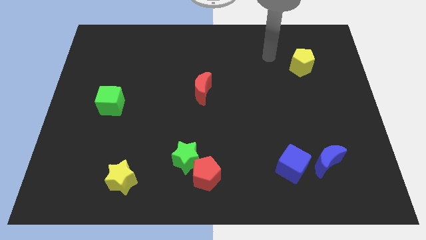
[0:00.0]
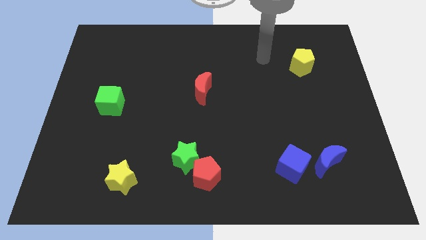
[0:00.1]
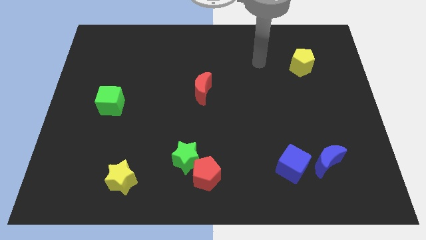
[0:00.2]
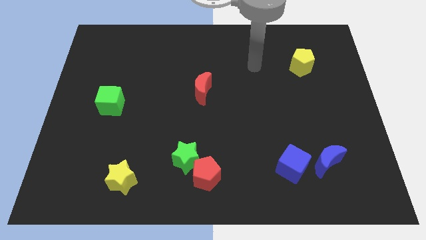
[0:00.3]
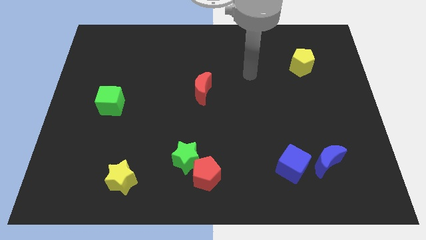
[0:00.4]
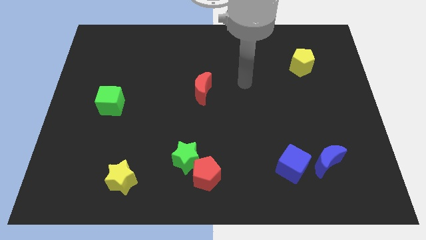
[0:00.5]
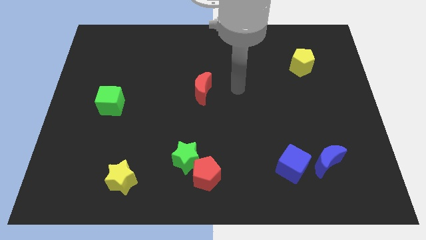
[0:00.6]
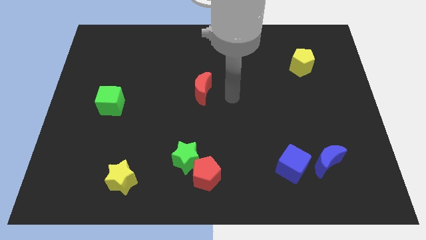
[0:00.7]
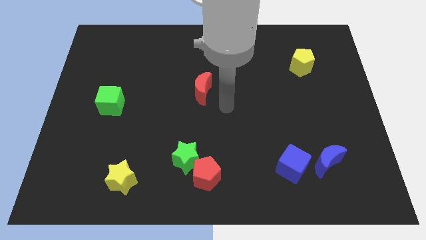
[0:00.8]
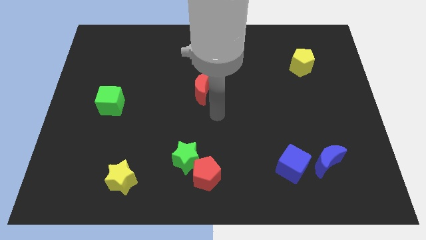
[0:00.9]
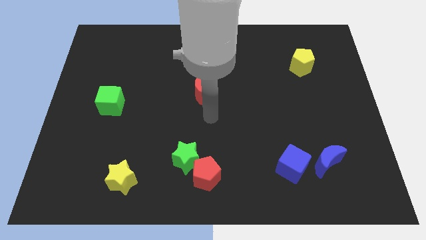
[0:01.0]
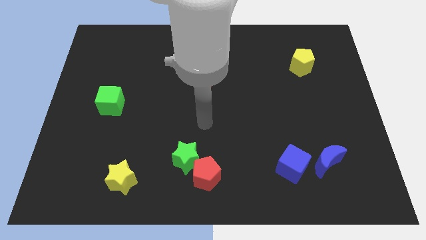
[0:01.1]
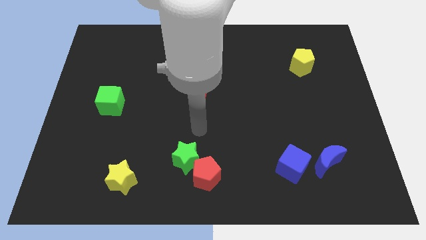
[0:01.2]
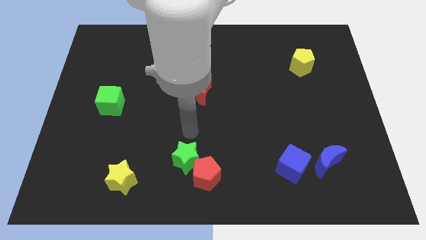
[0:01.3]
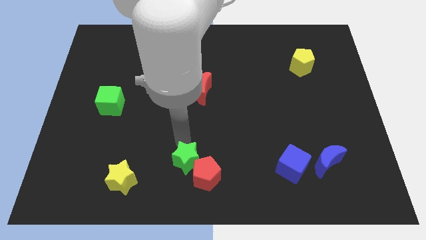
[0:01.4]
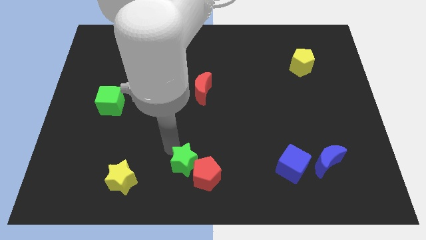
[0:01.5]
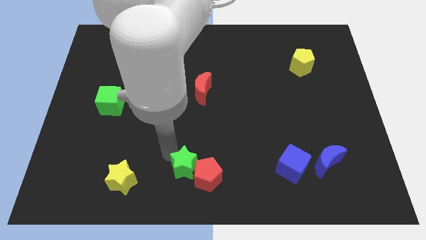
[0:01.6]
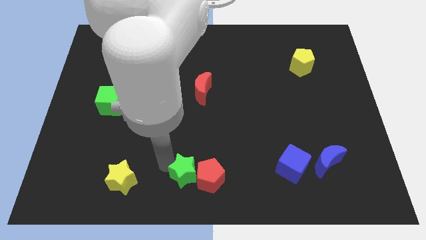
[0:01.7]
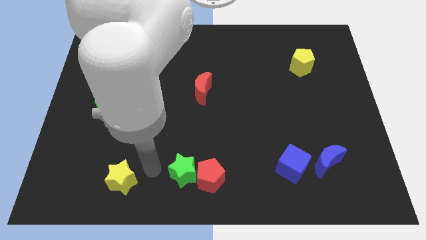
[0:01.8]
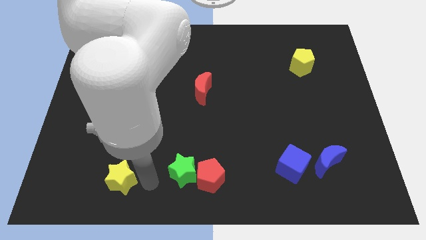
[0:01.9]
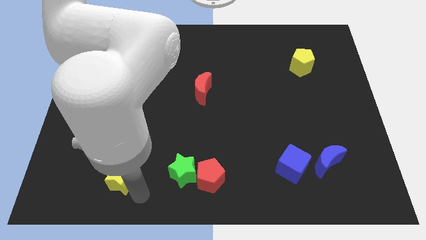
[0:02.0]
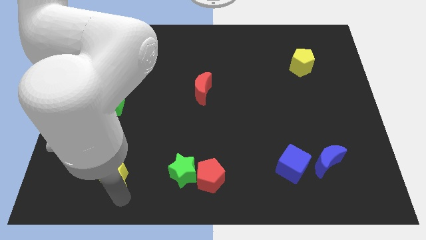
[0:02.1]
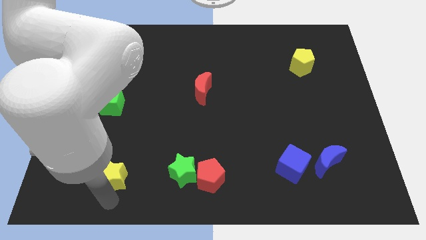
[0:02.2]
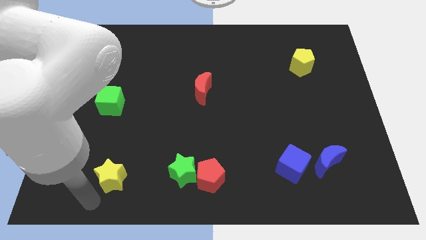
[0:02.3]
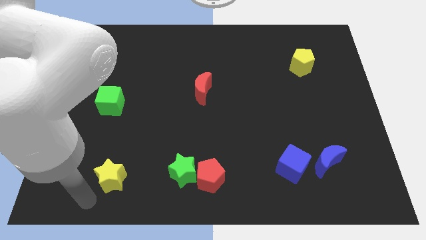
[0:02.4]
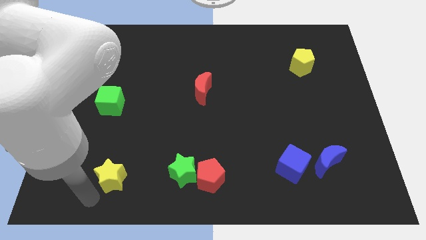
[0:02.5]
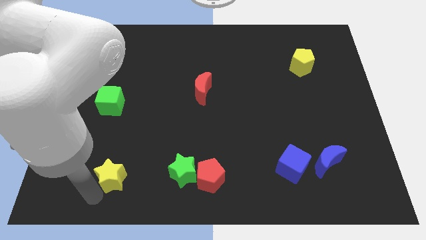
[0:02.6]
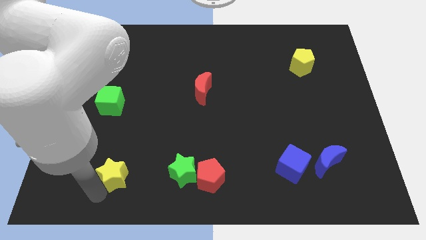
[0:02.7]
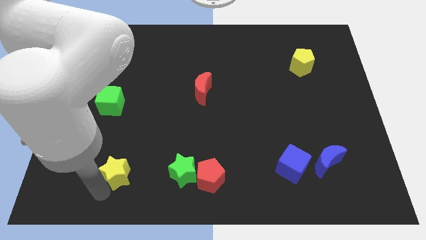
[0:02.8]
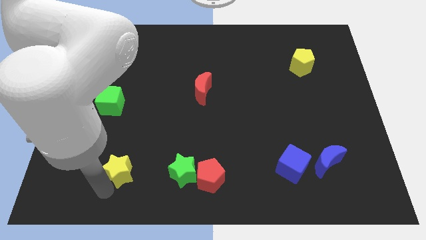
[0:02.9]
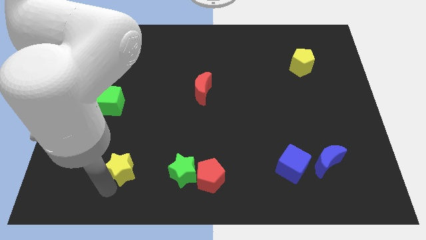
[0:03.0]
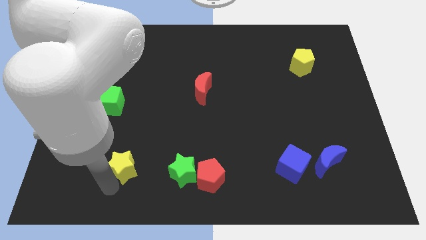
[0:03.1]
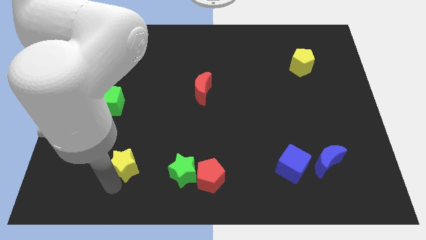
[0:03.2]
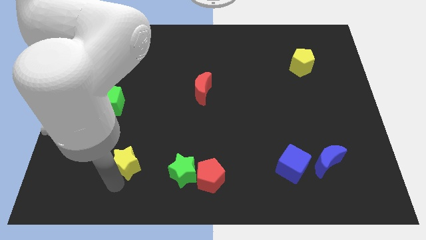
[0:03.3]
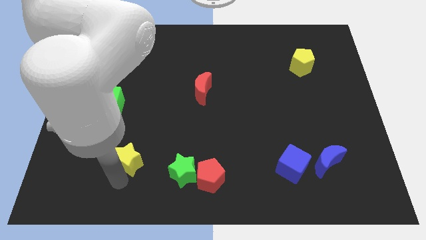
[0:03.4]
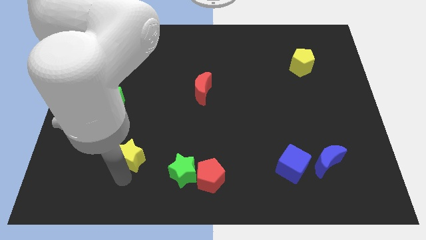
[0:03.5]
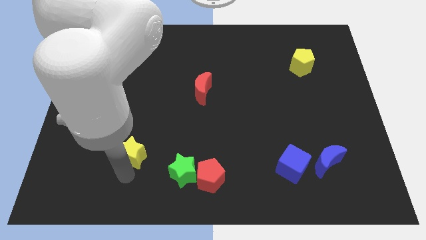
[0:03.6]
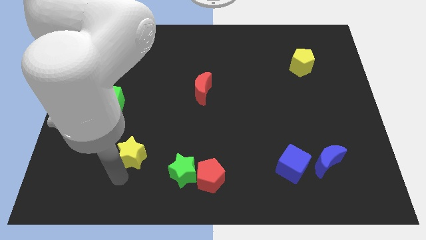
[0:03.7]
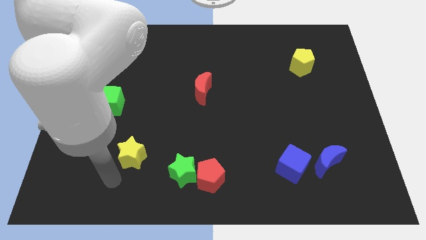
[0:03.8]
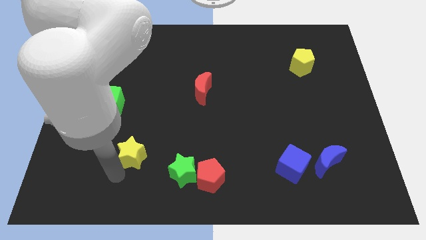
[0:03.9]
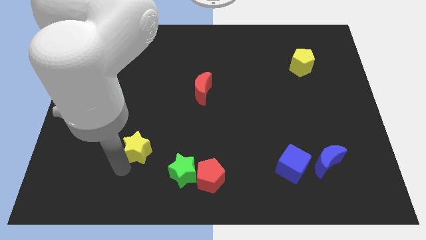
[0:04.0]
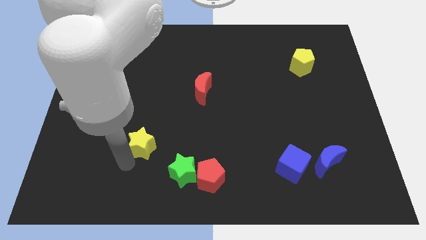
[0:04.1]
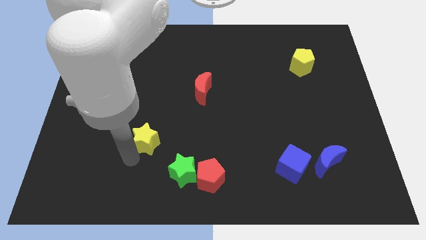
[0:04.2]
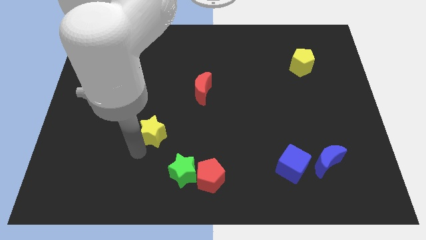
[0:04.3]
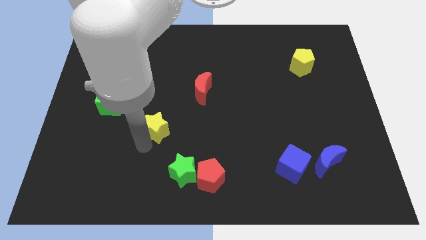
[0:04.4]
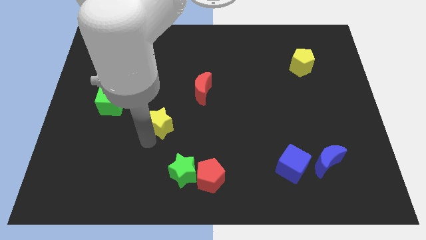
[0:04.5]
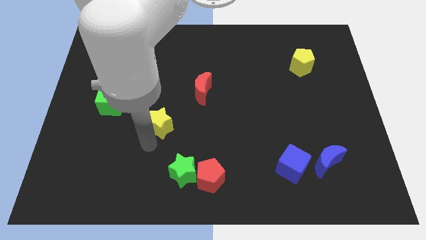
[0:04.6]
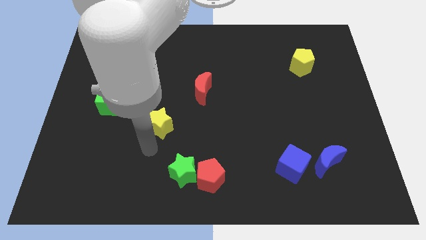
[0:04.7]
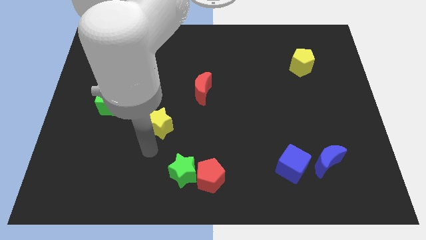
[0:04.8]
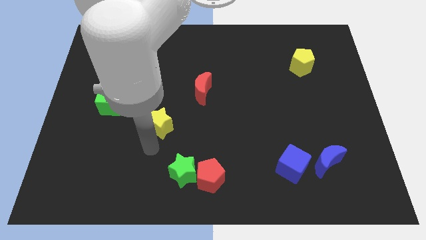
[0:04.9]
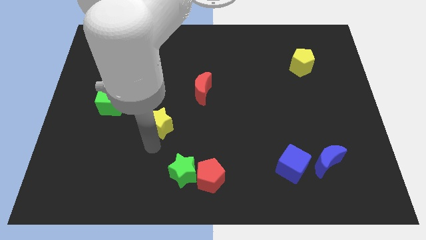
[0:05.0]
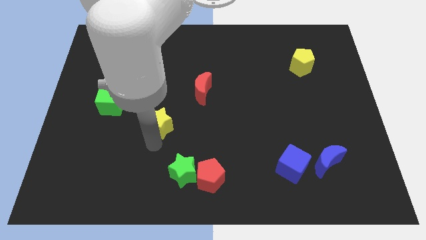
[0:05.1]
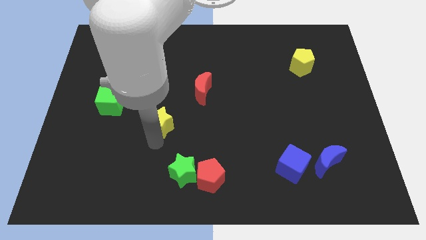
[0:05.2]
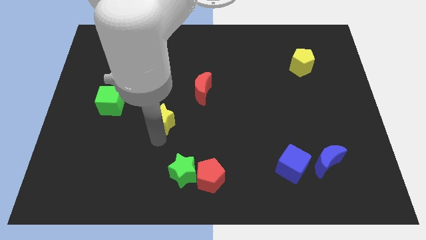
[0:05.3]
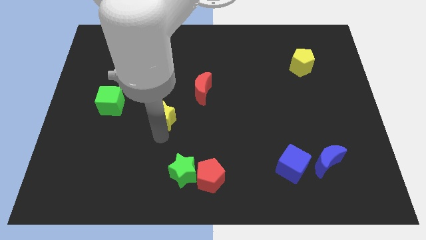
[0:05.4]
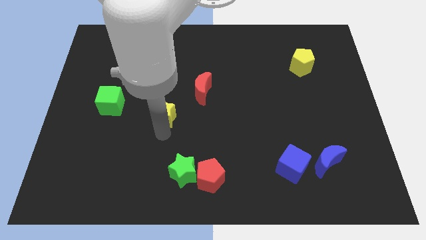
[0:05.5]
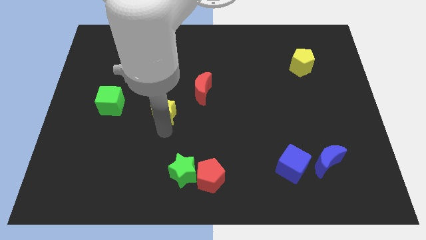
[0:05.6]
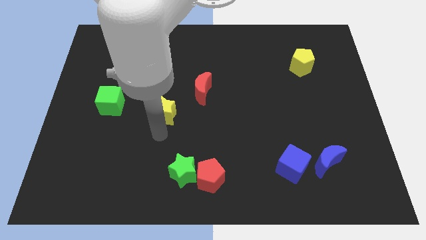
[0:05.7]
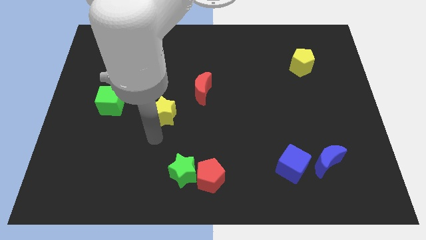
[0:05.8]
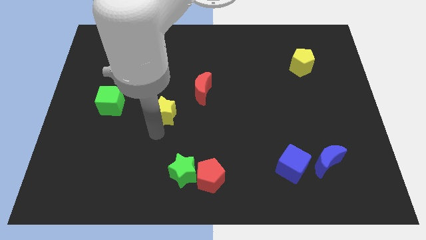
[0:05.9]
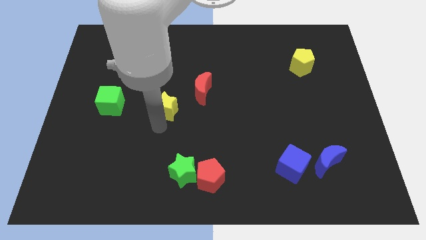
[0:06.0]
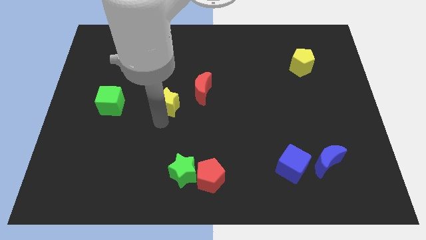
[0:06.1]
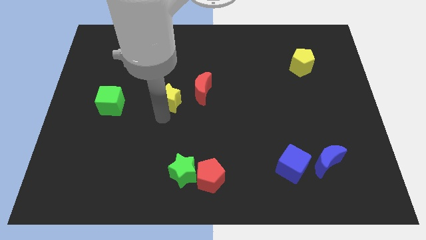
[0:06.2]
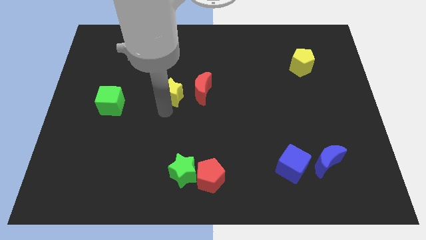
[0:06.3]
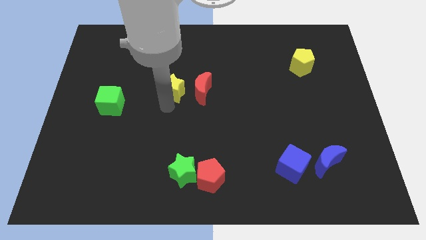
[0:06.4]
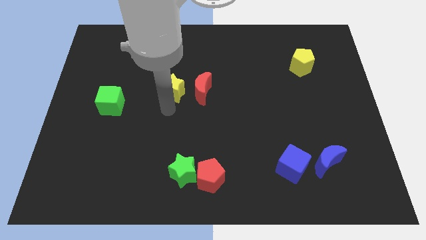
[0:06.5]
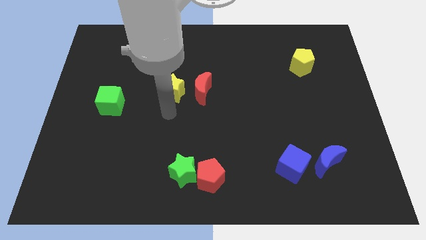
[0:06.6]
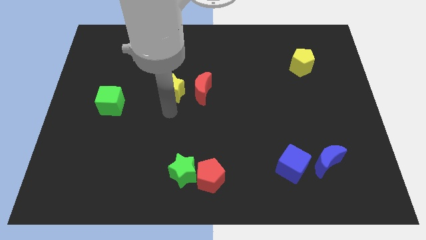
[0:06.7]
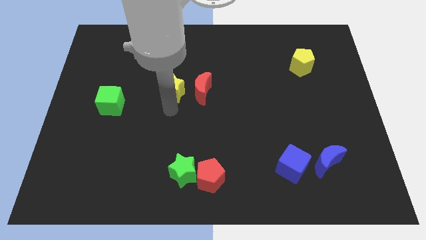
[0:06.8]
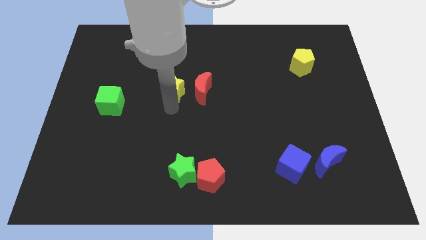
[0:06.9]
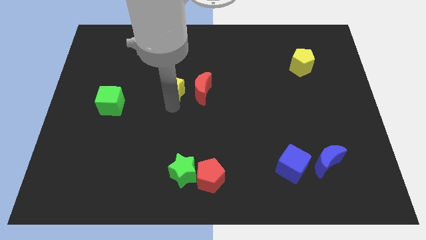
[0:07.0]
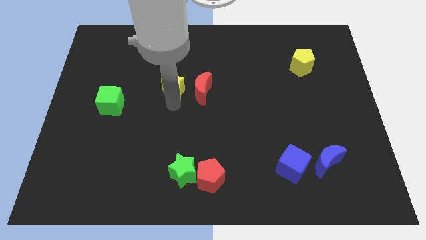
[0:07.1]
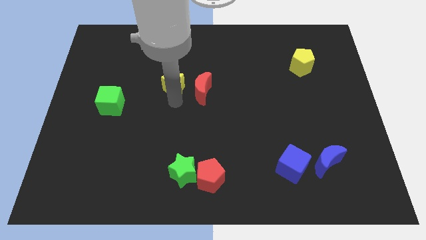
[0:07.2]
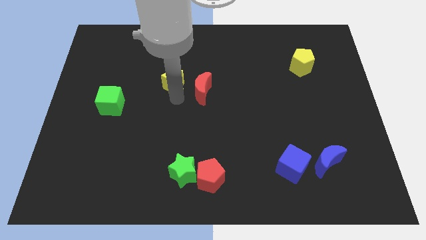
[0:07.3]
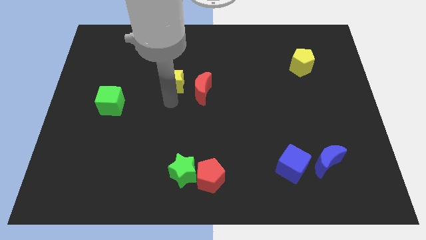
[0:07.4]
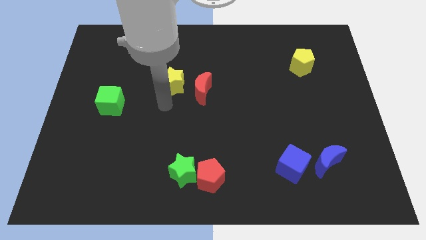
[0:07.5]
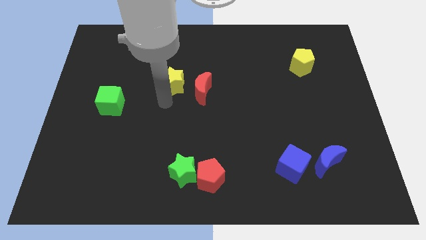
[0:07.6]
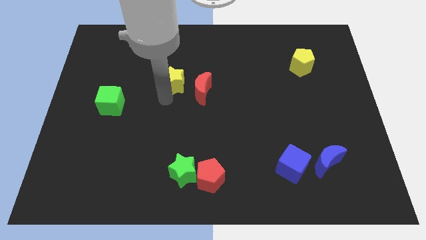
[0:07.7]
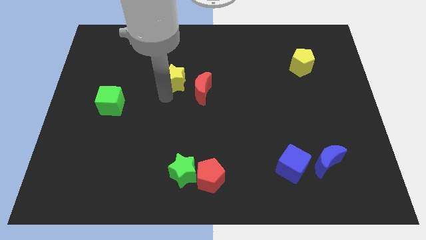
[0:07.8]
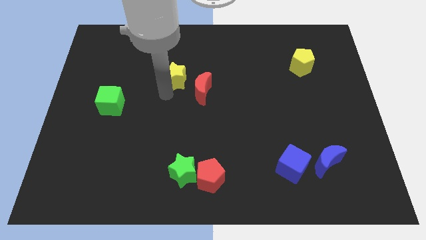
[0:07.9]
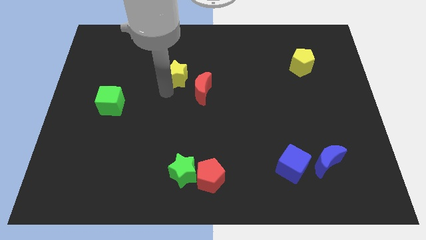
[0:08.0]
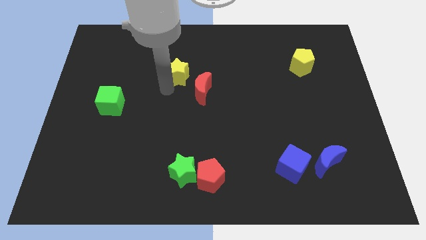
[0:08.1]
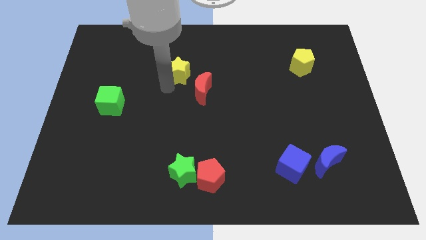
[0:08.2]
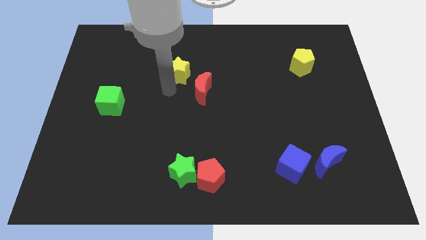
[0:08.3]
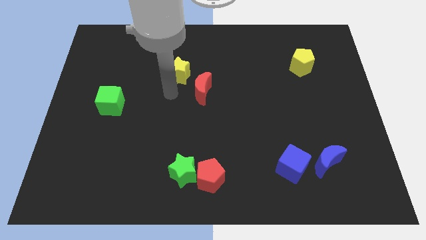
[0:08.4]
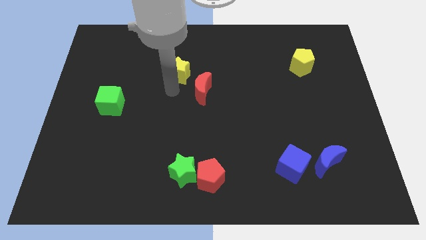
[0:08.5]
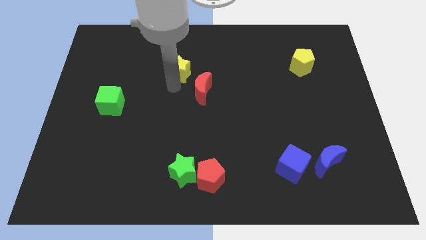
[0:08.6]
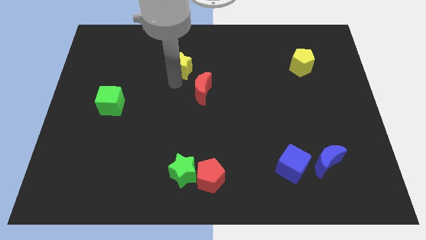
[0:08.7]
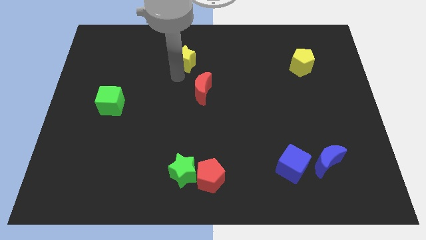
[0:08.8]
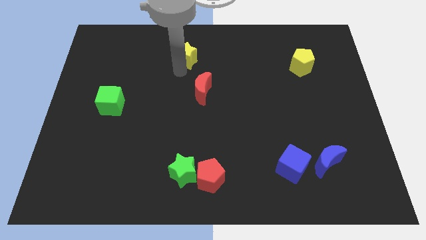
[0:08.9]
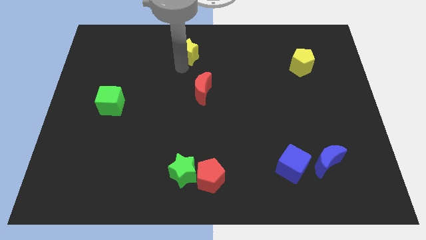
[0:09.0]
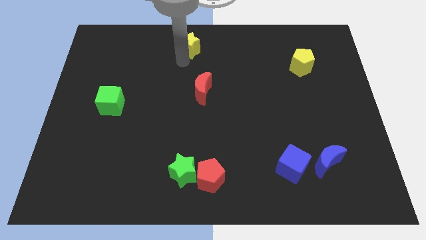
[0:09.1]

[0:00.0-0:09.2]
slide the yellow star to the top side
